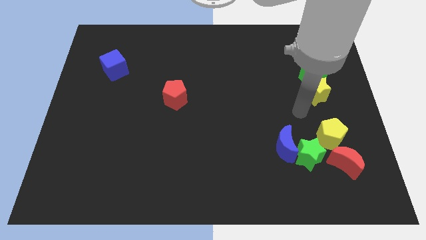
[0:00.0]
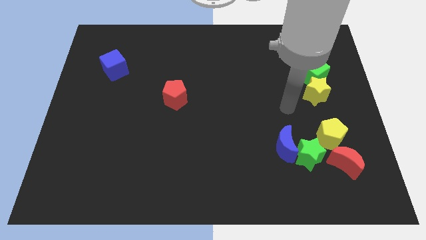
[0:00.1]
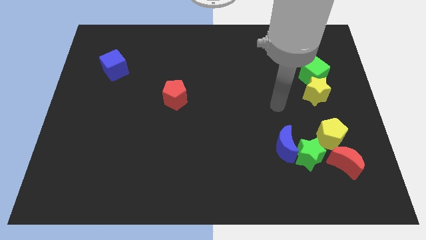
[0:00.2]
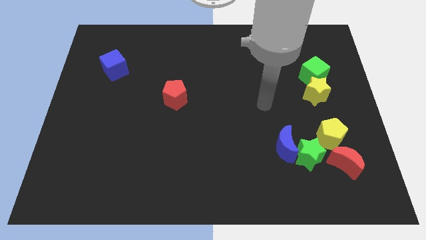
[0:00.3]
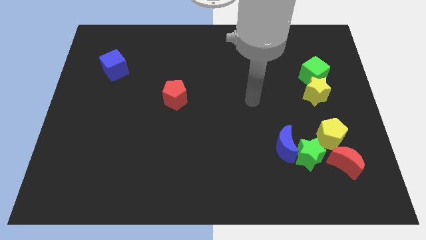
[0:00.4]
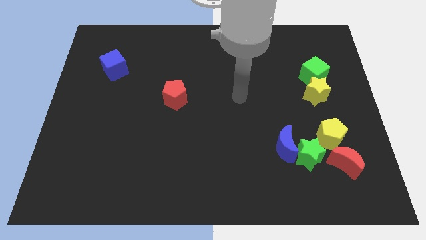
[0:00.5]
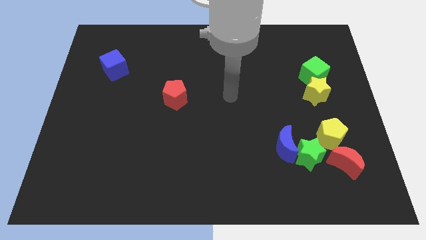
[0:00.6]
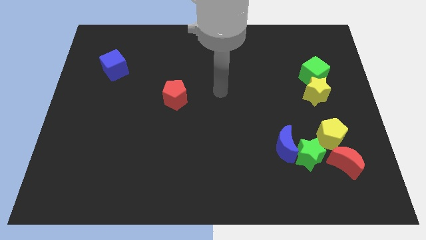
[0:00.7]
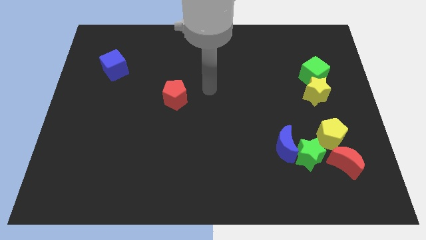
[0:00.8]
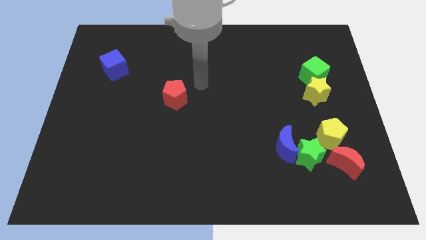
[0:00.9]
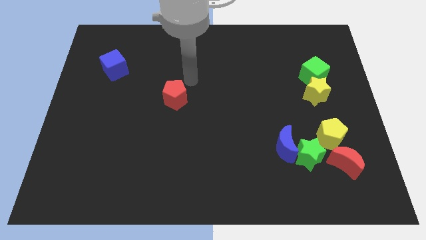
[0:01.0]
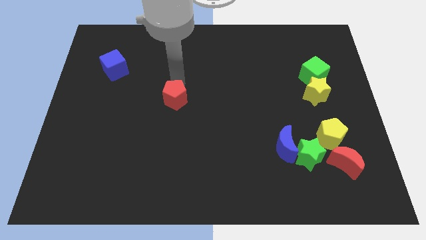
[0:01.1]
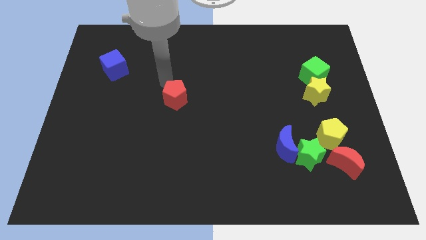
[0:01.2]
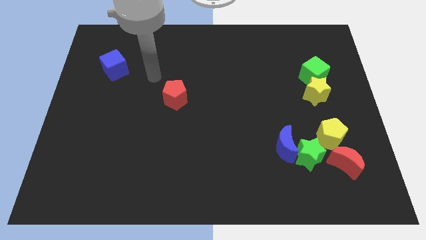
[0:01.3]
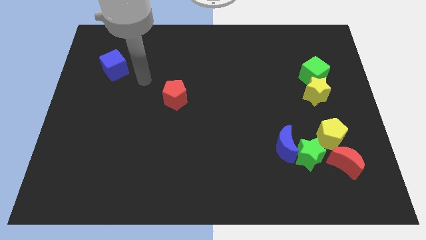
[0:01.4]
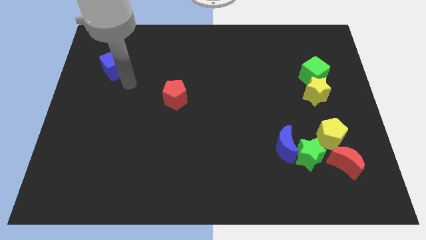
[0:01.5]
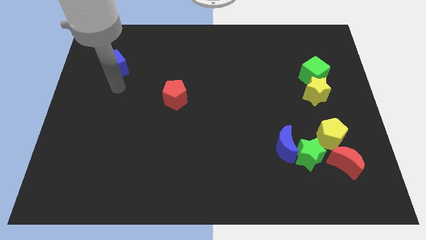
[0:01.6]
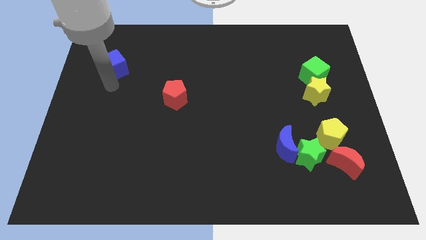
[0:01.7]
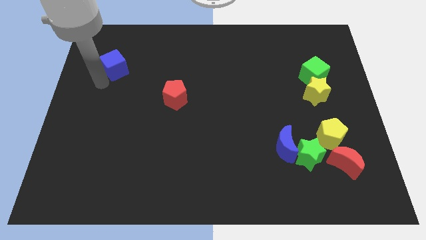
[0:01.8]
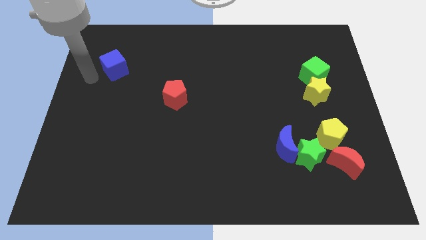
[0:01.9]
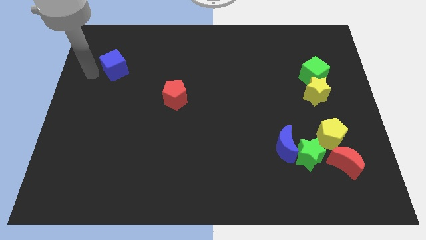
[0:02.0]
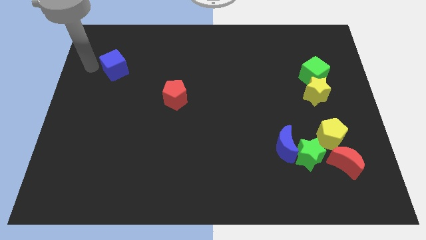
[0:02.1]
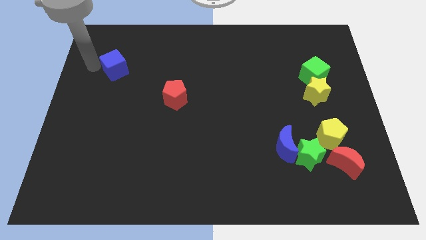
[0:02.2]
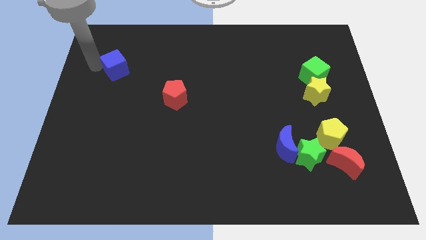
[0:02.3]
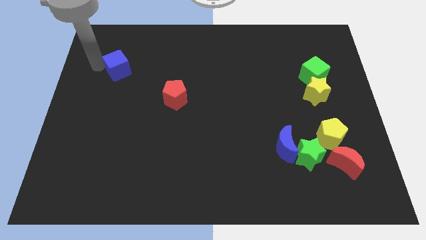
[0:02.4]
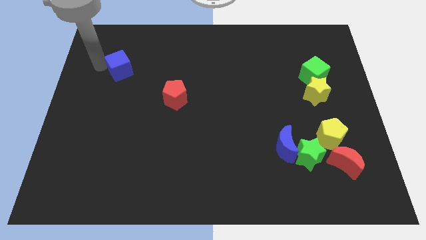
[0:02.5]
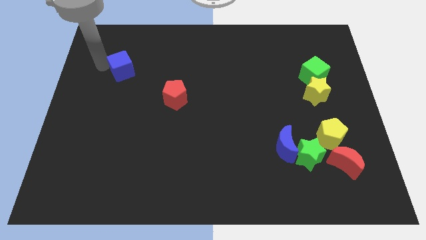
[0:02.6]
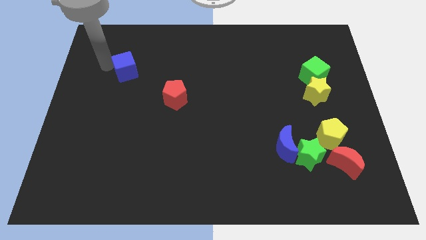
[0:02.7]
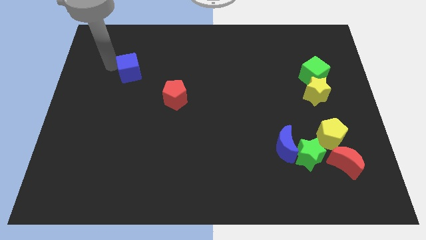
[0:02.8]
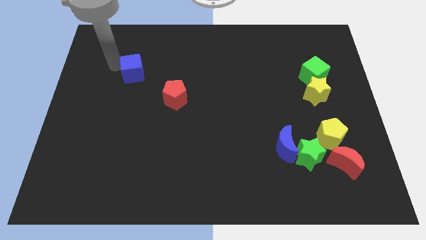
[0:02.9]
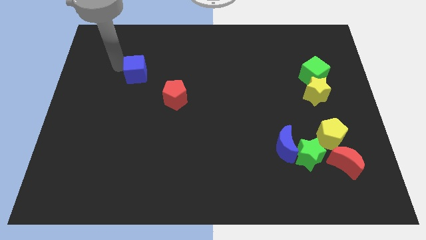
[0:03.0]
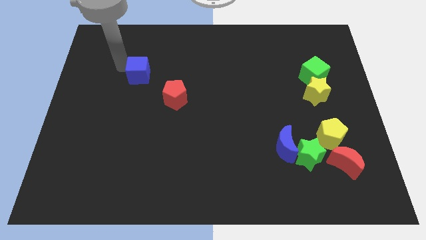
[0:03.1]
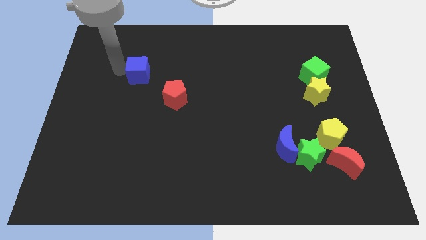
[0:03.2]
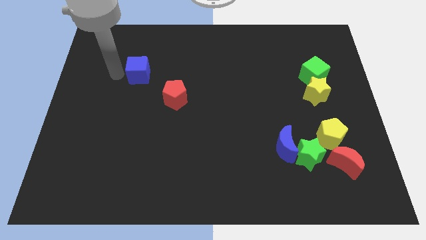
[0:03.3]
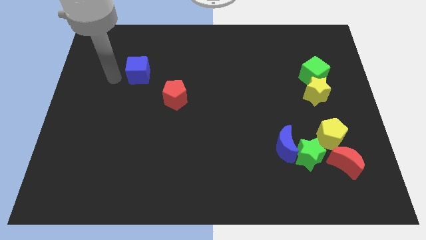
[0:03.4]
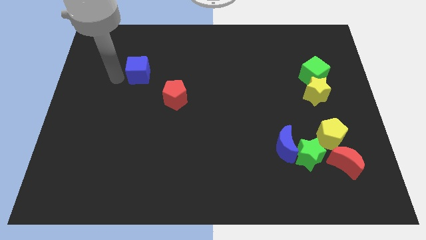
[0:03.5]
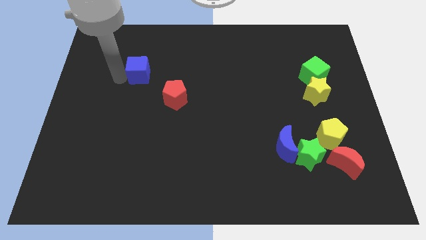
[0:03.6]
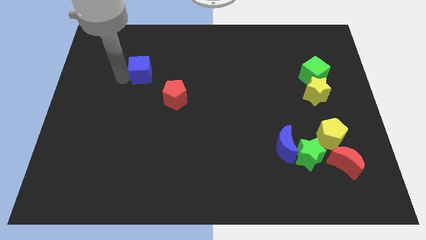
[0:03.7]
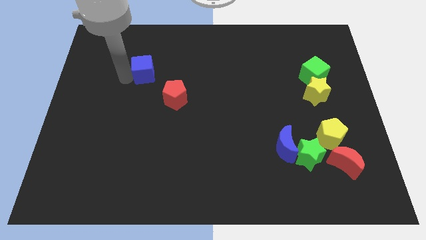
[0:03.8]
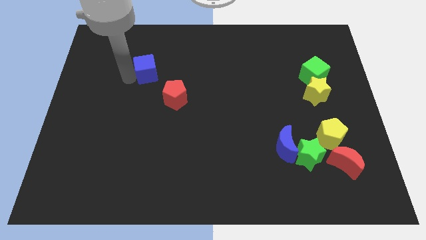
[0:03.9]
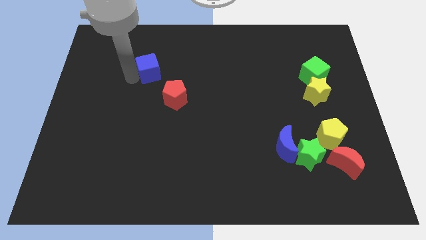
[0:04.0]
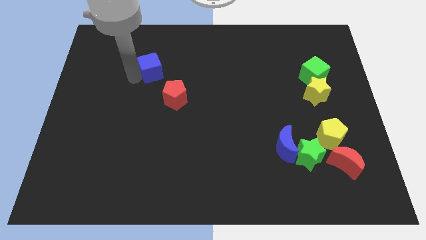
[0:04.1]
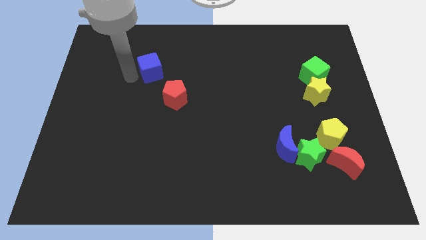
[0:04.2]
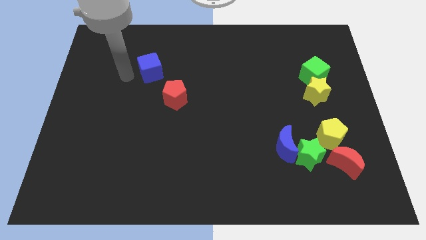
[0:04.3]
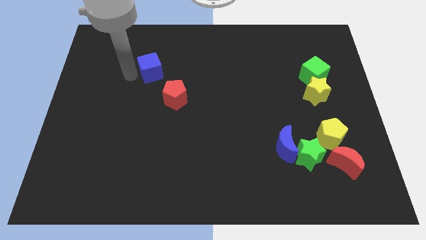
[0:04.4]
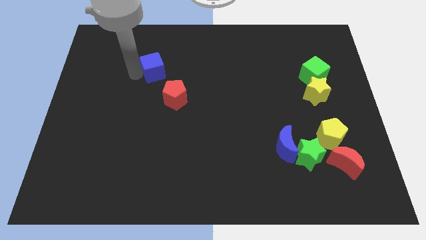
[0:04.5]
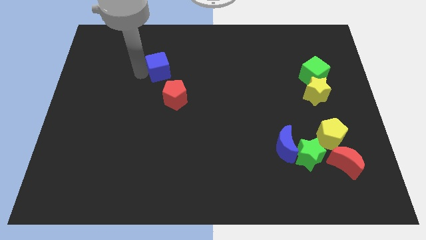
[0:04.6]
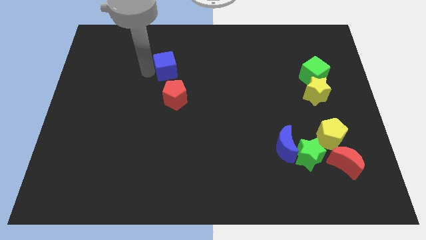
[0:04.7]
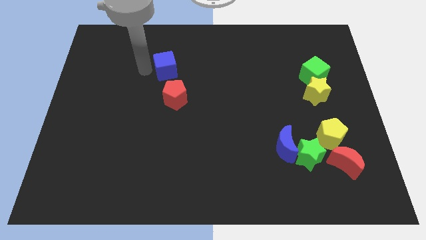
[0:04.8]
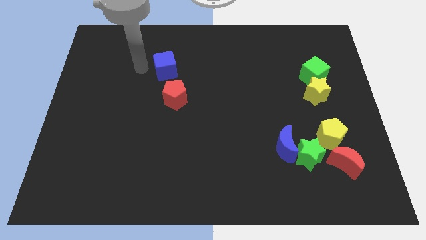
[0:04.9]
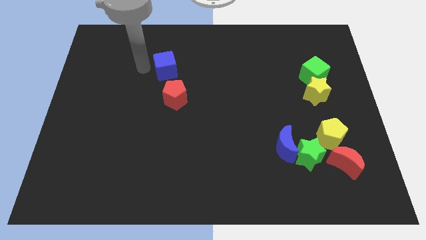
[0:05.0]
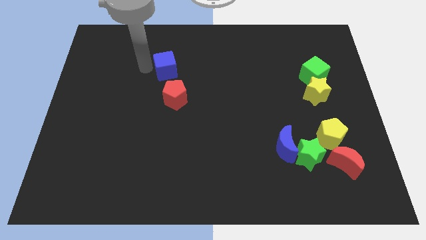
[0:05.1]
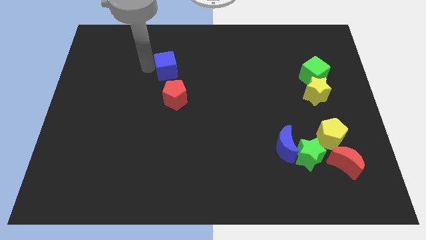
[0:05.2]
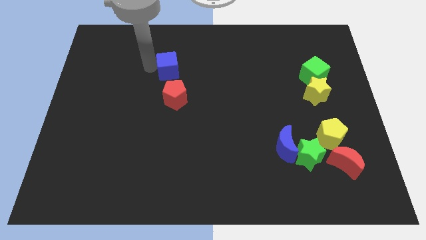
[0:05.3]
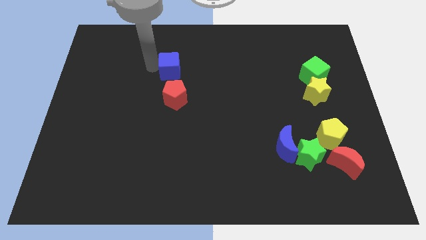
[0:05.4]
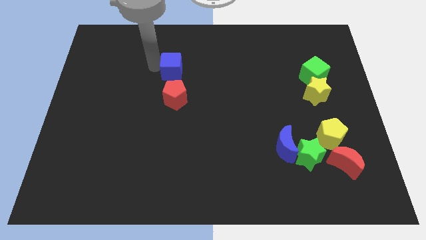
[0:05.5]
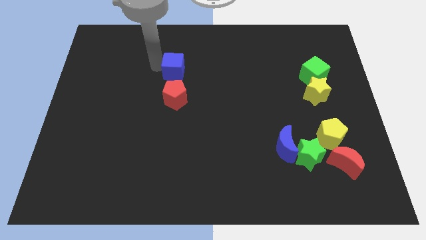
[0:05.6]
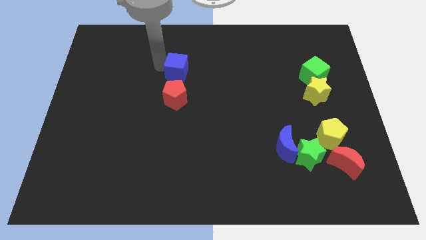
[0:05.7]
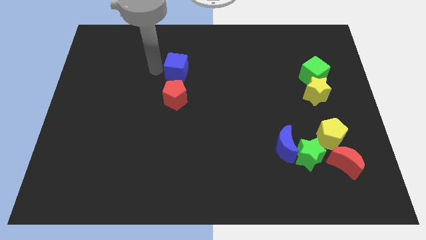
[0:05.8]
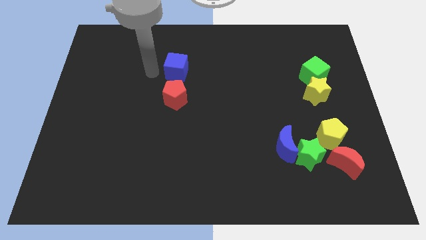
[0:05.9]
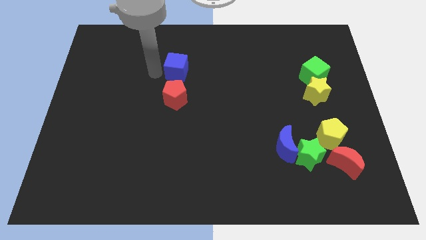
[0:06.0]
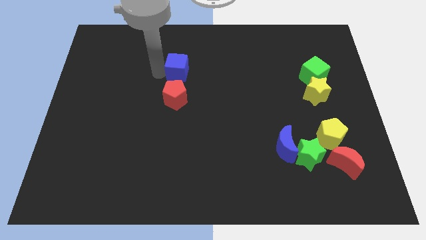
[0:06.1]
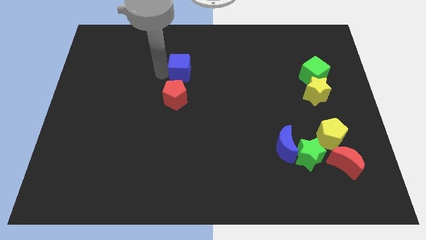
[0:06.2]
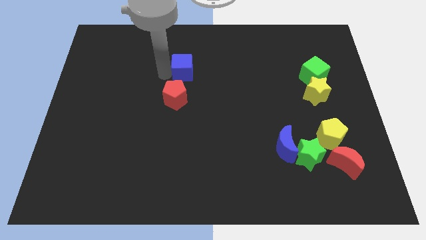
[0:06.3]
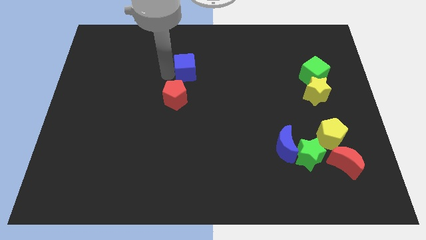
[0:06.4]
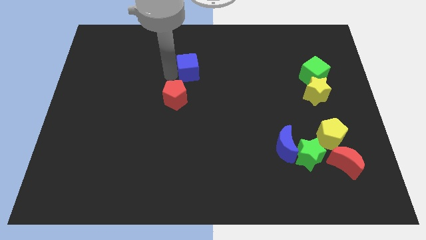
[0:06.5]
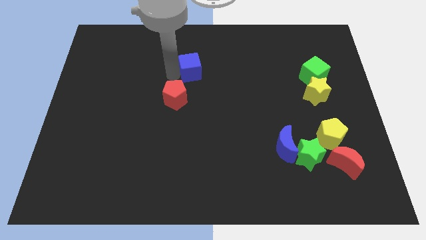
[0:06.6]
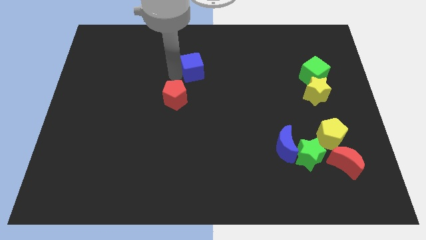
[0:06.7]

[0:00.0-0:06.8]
move the blue cube to the right

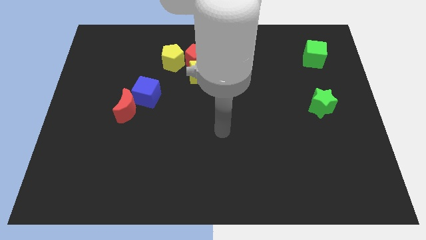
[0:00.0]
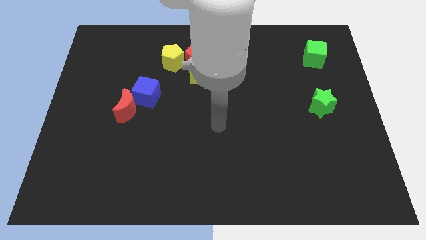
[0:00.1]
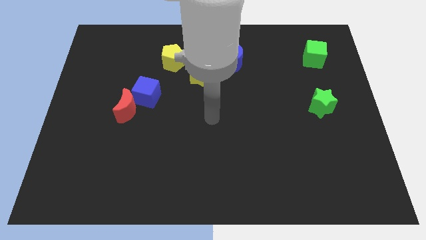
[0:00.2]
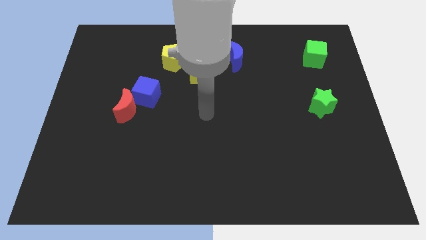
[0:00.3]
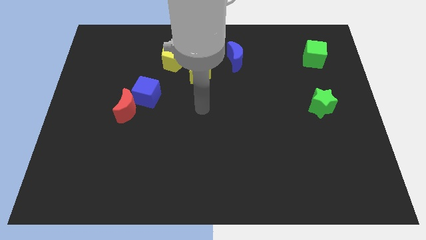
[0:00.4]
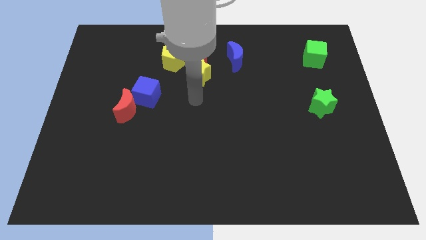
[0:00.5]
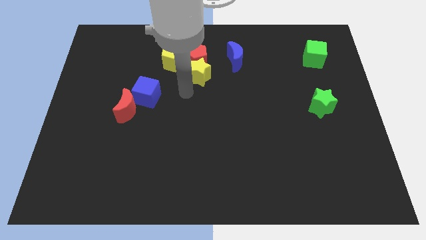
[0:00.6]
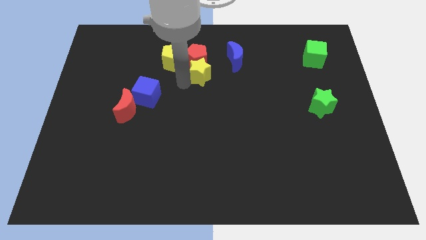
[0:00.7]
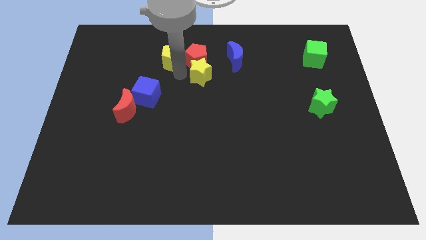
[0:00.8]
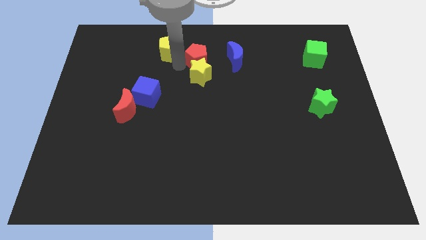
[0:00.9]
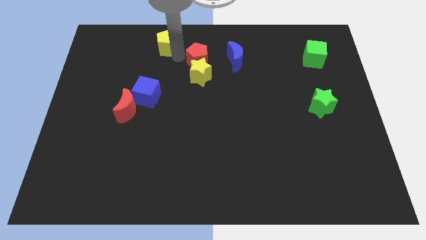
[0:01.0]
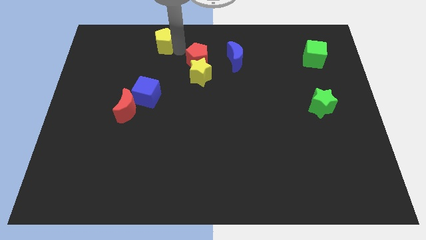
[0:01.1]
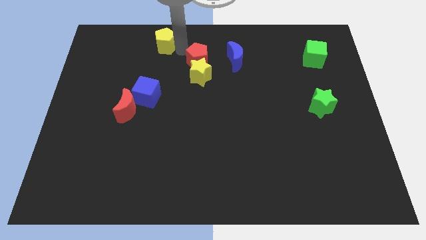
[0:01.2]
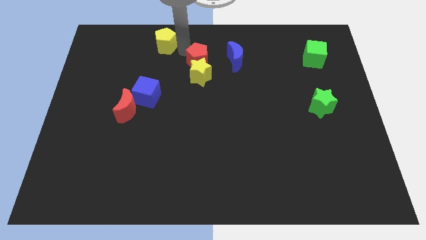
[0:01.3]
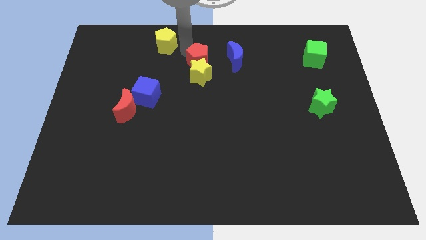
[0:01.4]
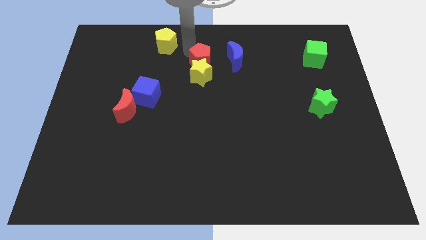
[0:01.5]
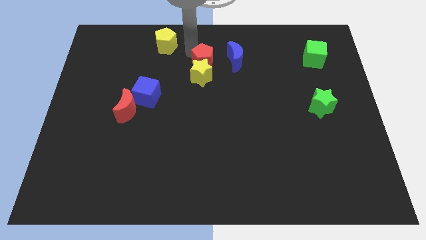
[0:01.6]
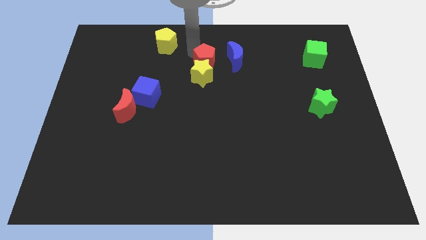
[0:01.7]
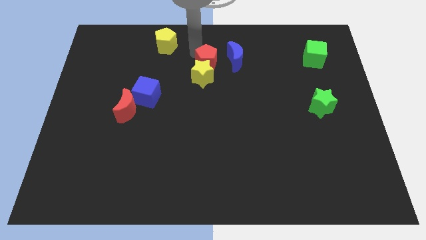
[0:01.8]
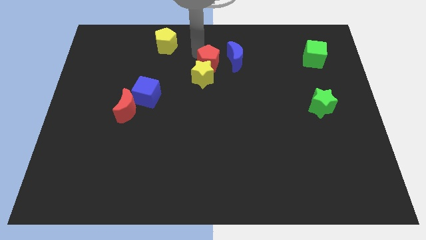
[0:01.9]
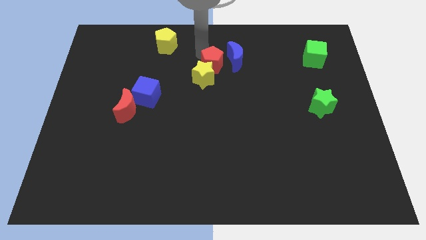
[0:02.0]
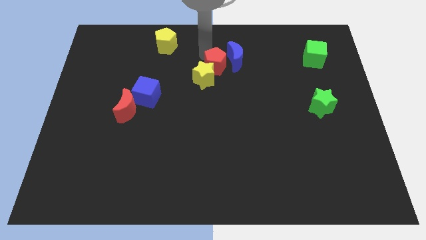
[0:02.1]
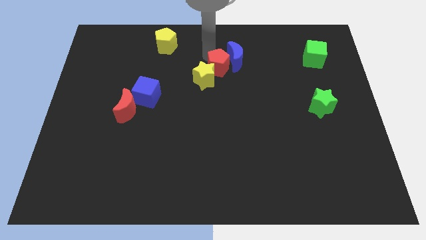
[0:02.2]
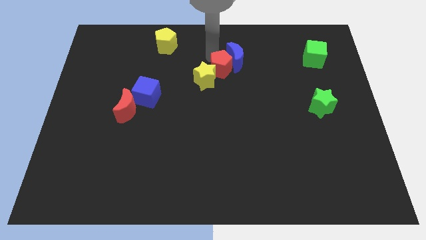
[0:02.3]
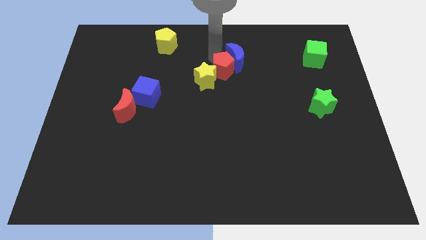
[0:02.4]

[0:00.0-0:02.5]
slide the red pentagon a little downwards and then right
